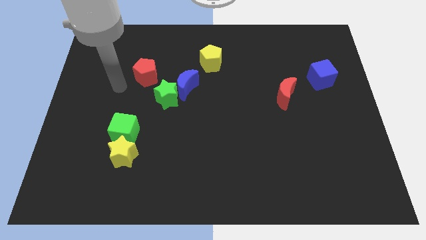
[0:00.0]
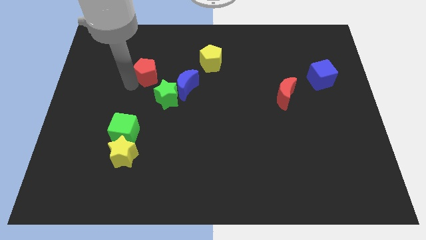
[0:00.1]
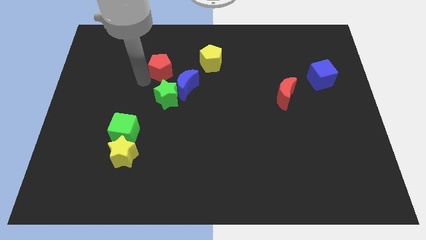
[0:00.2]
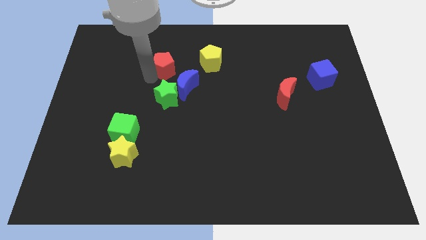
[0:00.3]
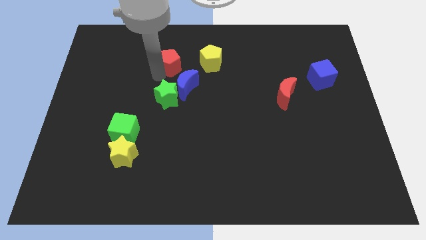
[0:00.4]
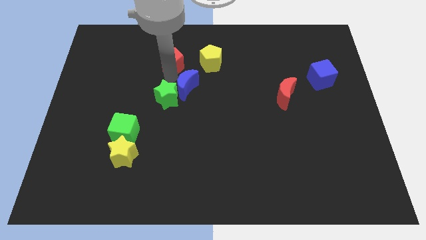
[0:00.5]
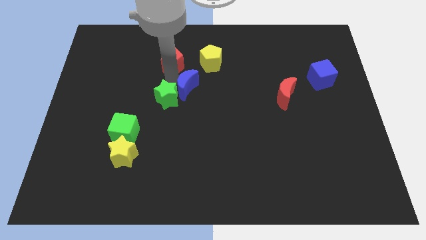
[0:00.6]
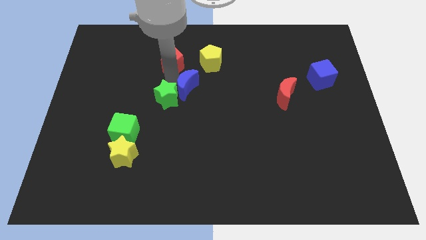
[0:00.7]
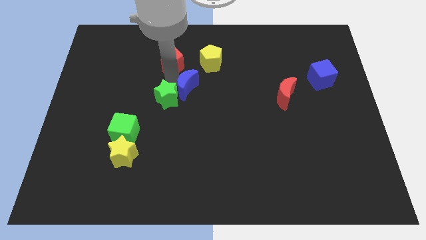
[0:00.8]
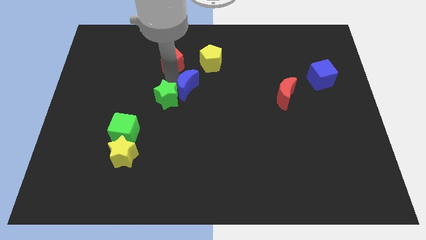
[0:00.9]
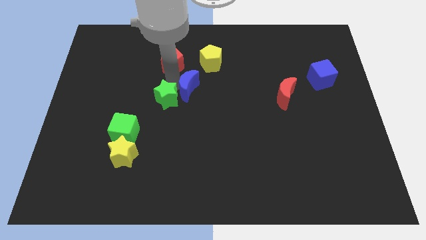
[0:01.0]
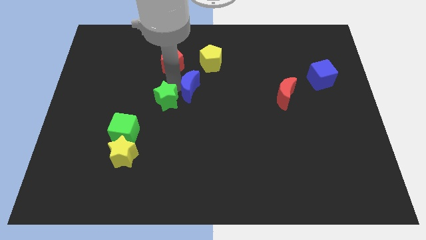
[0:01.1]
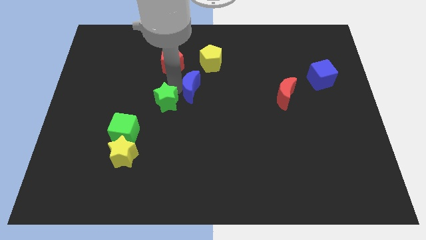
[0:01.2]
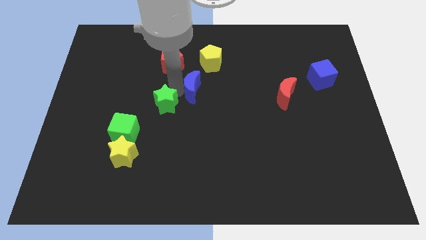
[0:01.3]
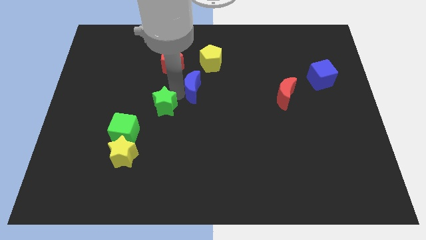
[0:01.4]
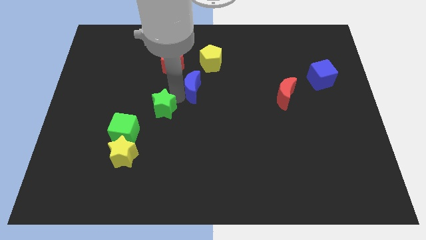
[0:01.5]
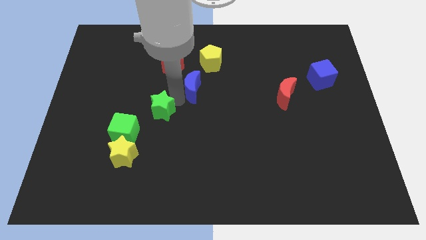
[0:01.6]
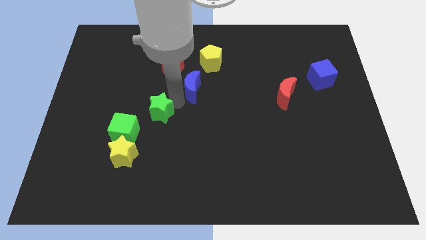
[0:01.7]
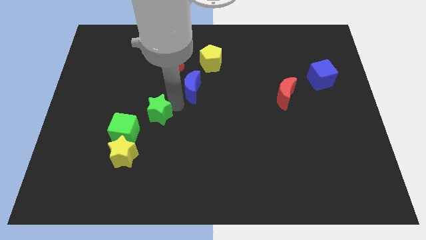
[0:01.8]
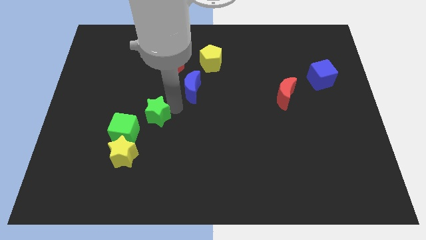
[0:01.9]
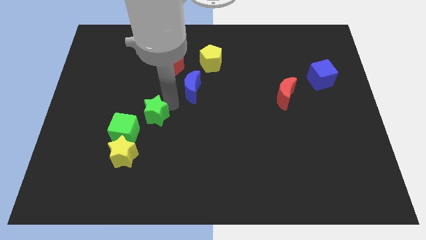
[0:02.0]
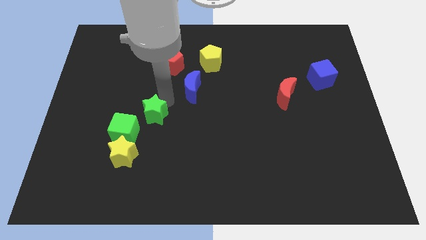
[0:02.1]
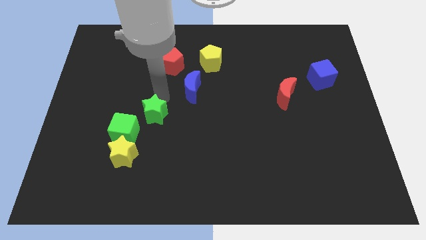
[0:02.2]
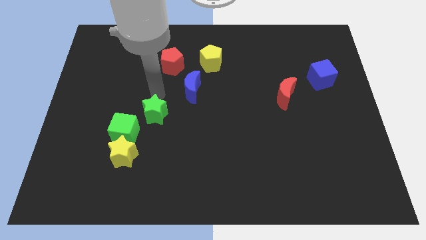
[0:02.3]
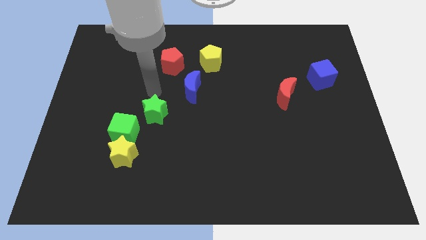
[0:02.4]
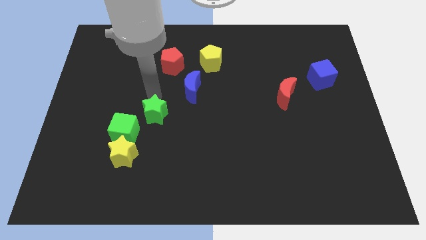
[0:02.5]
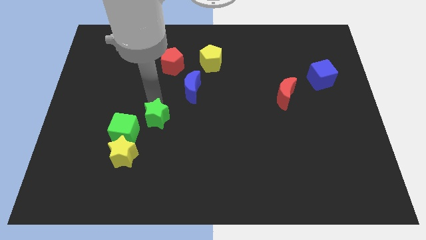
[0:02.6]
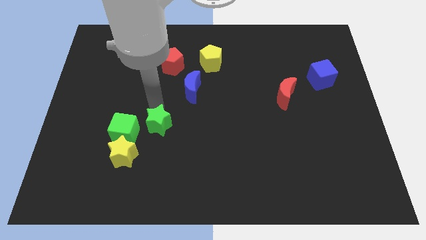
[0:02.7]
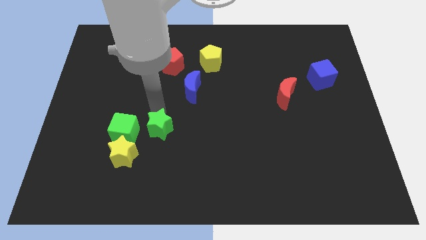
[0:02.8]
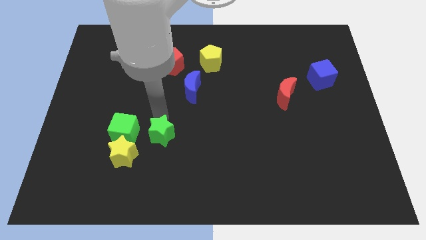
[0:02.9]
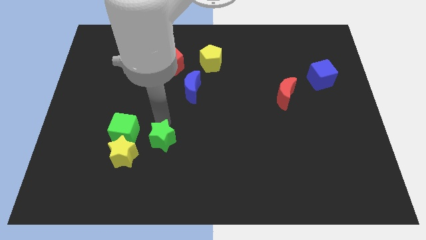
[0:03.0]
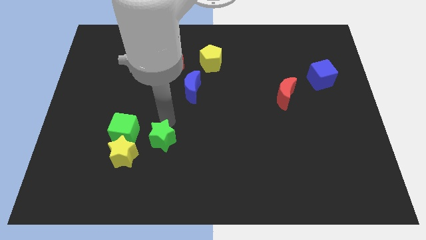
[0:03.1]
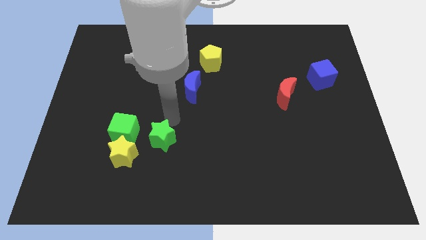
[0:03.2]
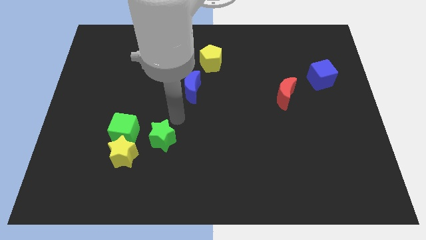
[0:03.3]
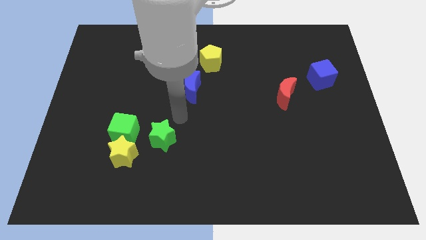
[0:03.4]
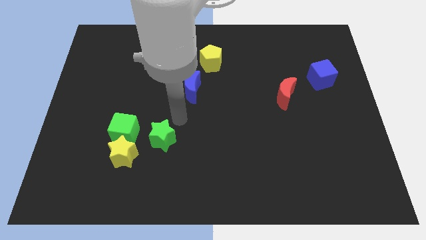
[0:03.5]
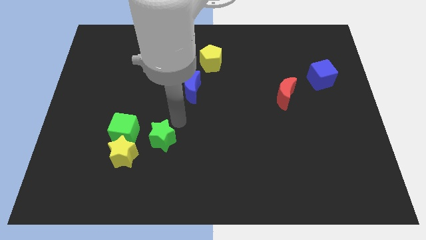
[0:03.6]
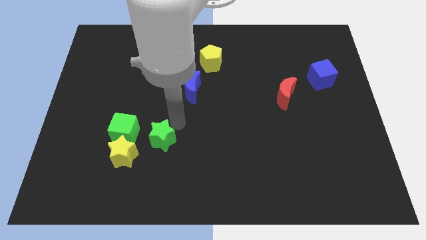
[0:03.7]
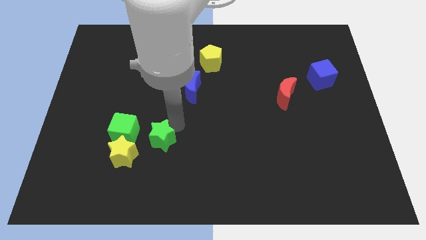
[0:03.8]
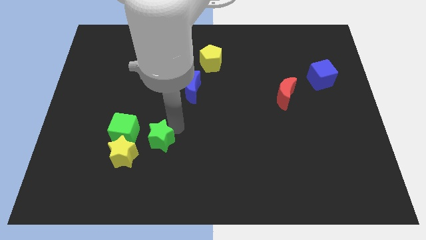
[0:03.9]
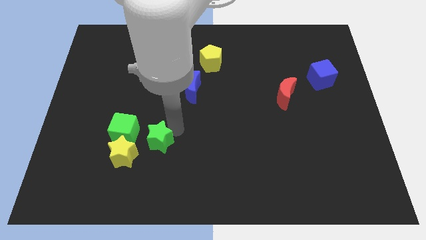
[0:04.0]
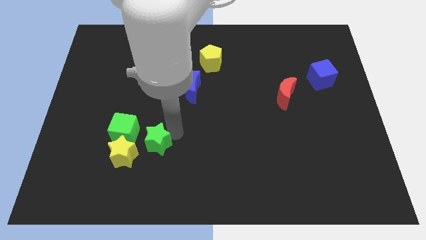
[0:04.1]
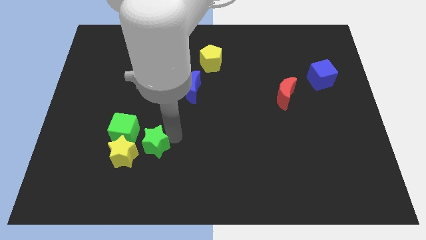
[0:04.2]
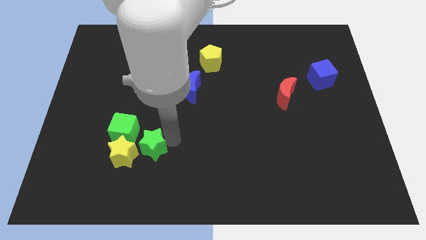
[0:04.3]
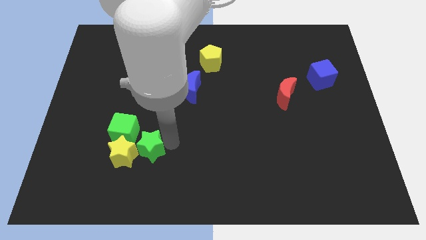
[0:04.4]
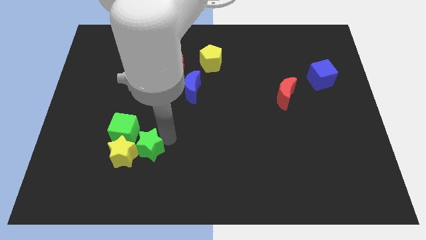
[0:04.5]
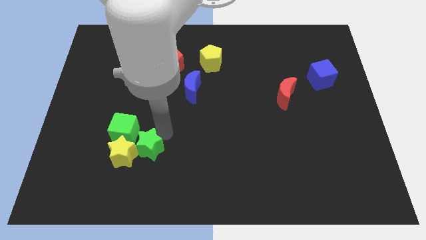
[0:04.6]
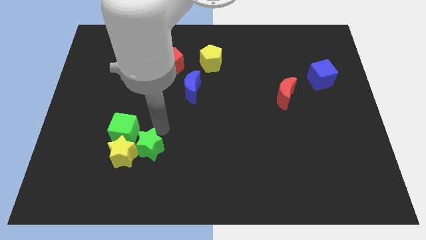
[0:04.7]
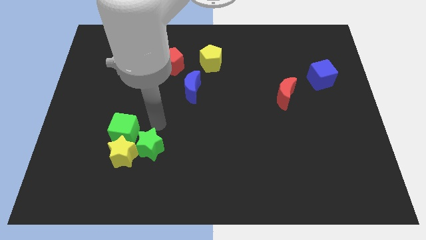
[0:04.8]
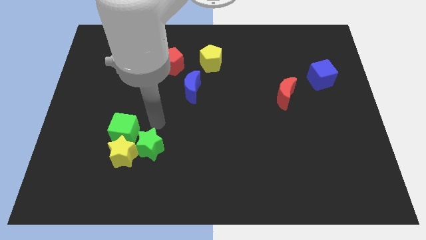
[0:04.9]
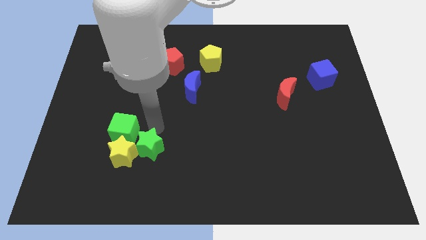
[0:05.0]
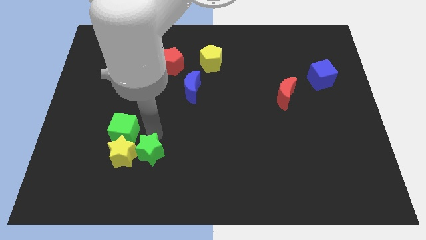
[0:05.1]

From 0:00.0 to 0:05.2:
move the green star to the bottom right side of the yellow star

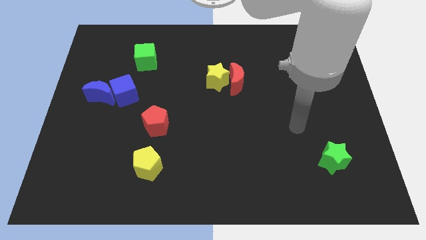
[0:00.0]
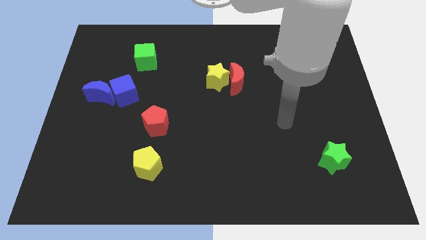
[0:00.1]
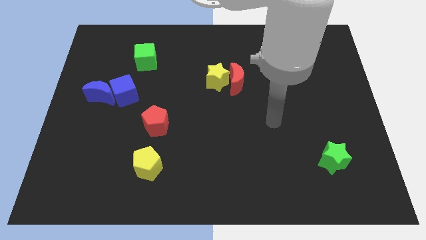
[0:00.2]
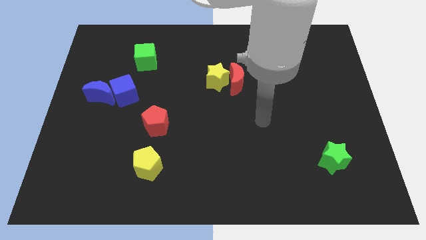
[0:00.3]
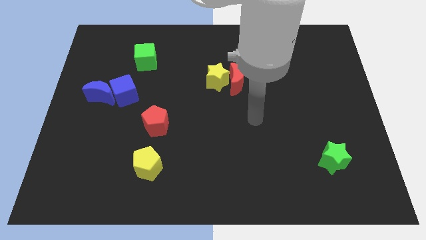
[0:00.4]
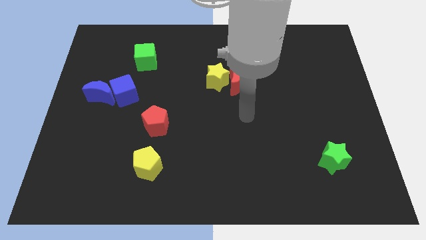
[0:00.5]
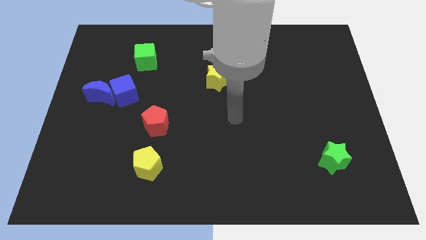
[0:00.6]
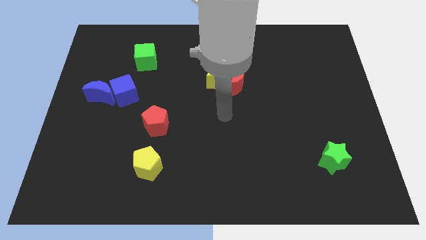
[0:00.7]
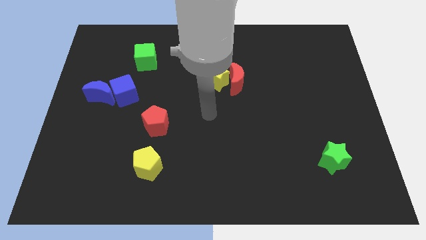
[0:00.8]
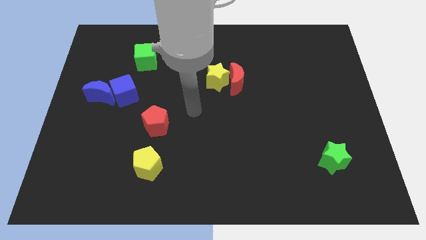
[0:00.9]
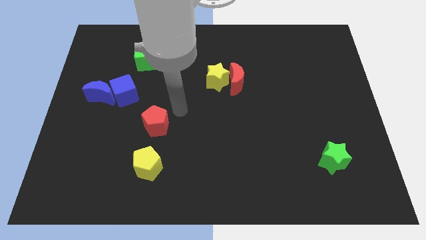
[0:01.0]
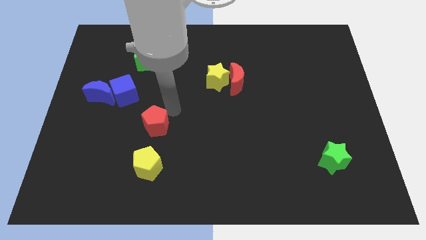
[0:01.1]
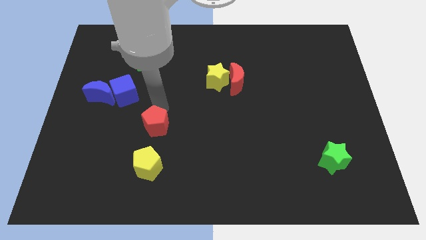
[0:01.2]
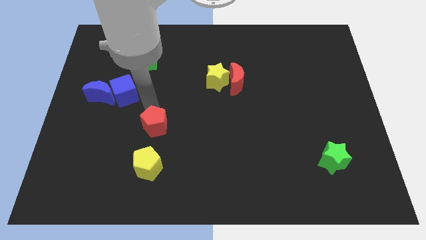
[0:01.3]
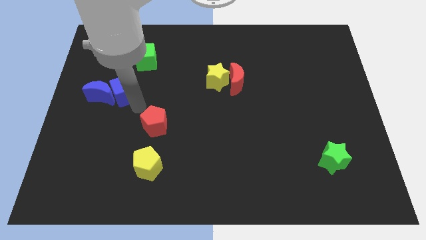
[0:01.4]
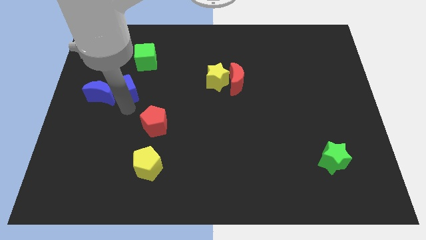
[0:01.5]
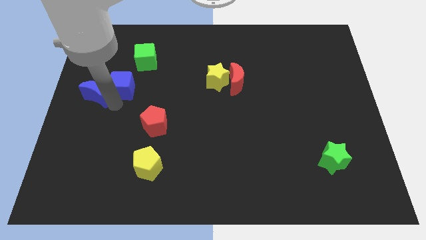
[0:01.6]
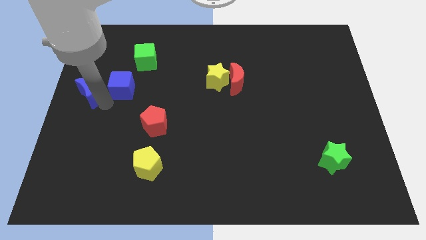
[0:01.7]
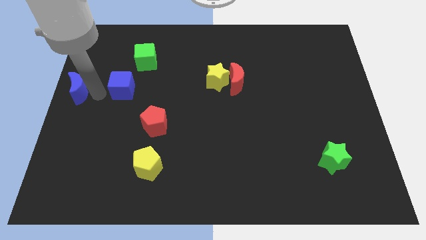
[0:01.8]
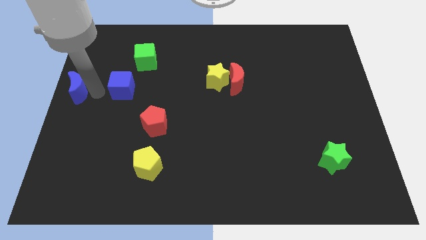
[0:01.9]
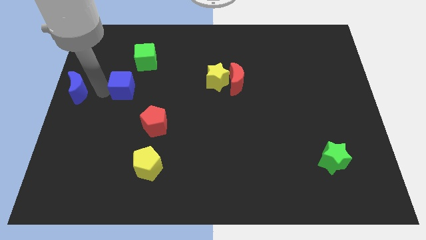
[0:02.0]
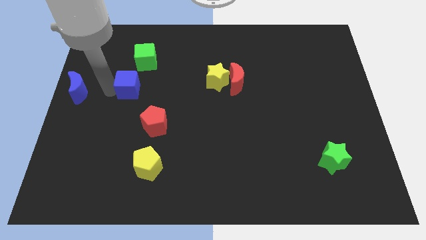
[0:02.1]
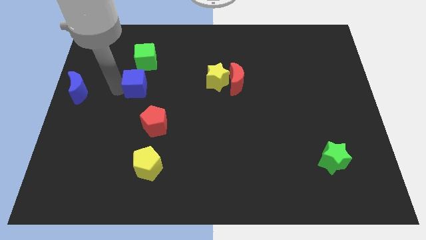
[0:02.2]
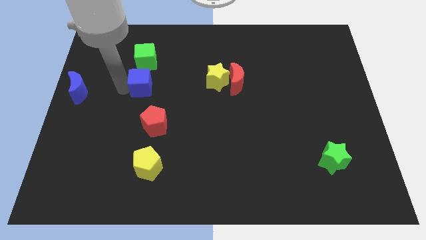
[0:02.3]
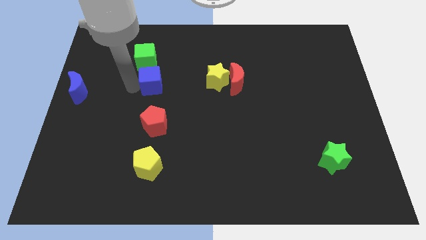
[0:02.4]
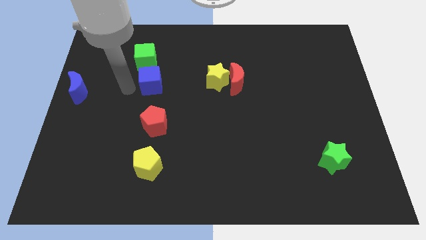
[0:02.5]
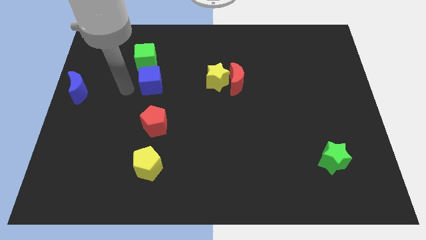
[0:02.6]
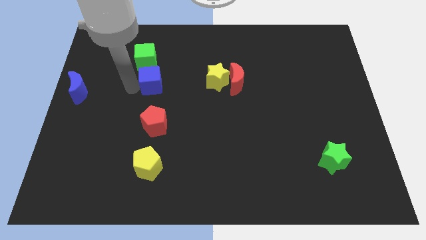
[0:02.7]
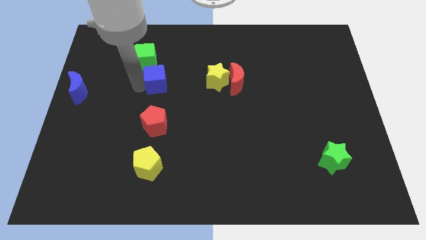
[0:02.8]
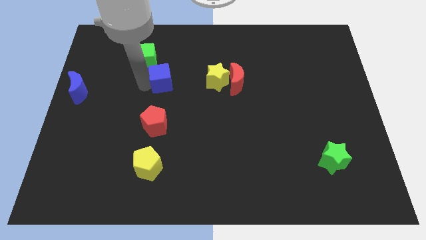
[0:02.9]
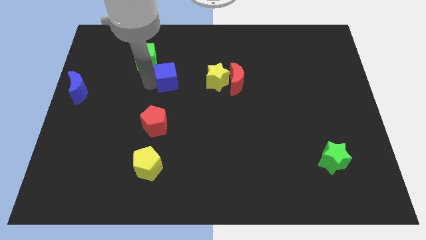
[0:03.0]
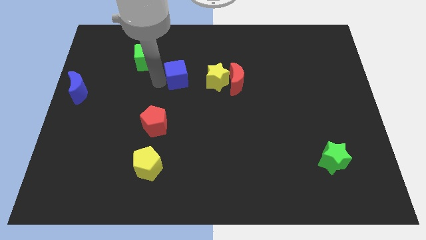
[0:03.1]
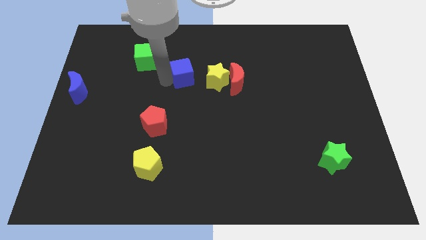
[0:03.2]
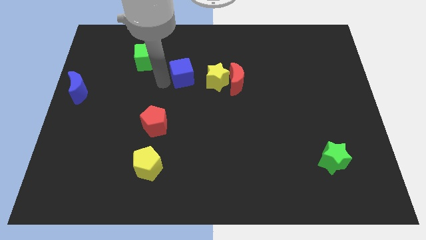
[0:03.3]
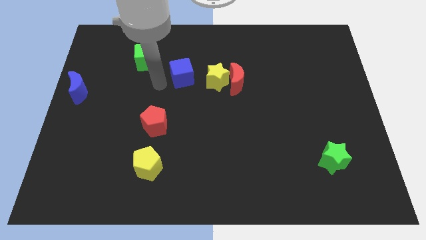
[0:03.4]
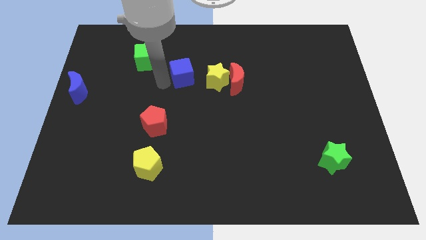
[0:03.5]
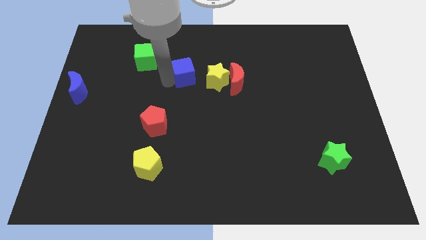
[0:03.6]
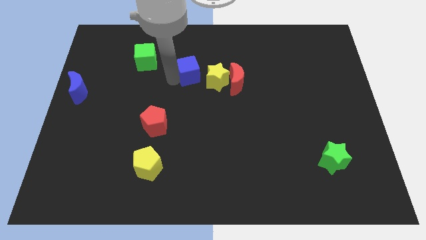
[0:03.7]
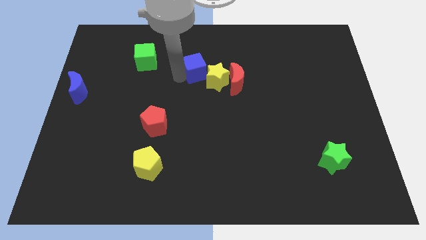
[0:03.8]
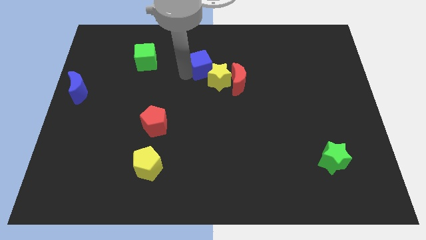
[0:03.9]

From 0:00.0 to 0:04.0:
move the blue cube diagonally up and to the left of the red moon
